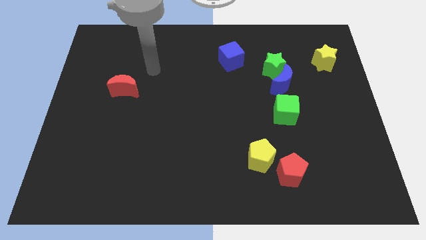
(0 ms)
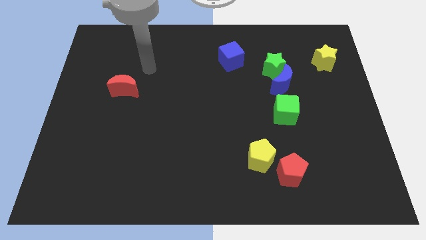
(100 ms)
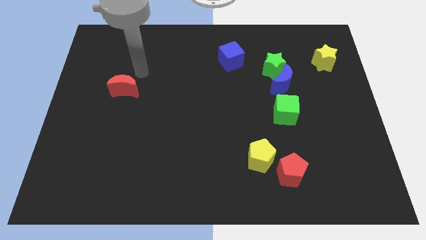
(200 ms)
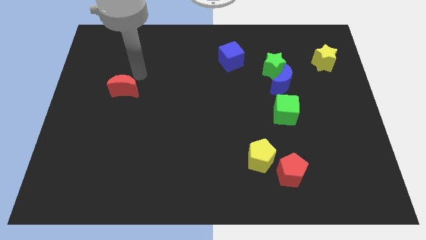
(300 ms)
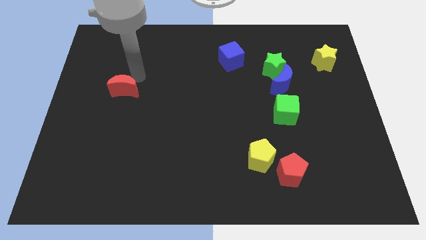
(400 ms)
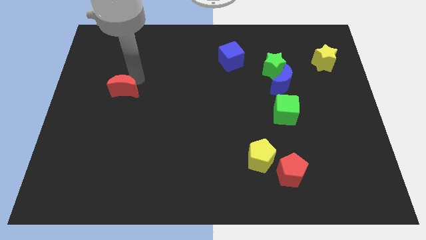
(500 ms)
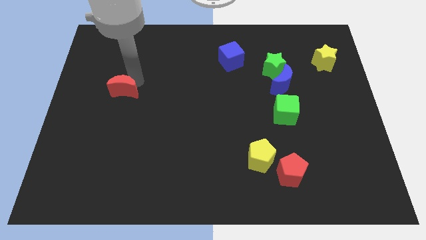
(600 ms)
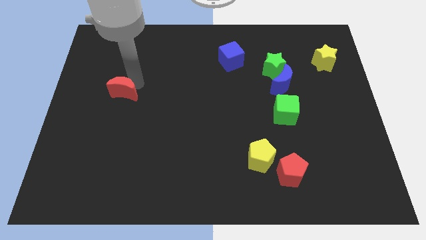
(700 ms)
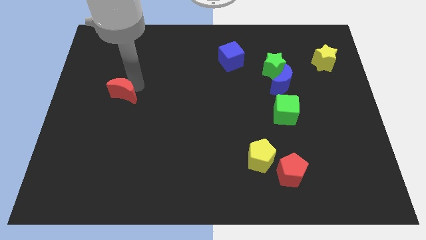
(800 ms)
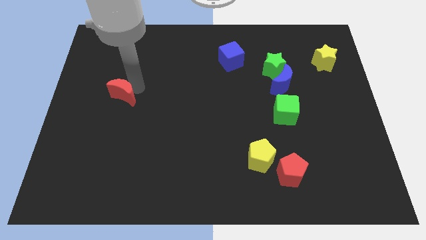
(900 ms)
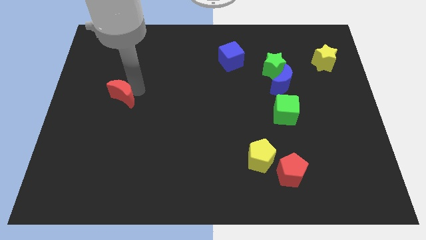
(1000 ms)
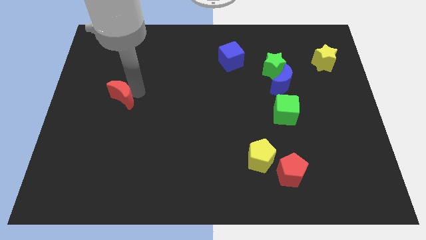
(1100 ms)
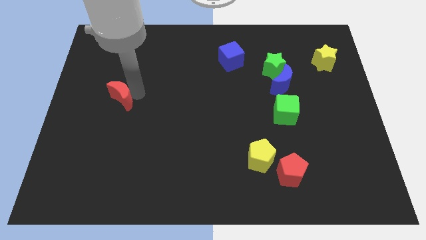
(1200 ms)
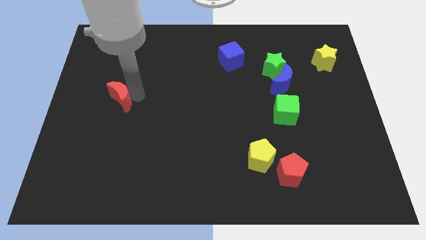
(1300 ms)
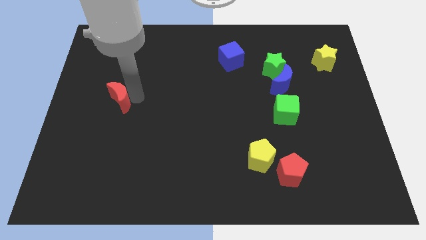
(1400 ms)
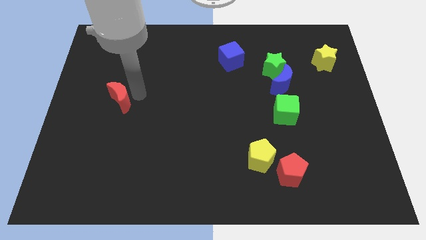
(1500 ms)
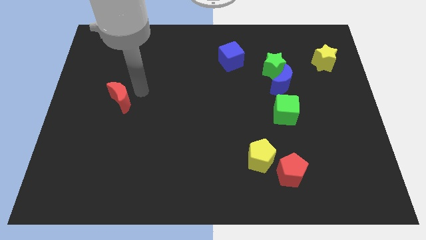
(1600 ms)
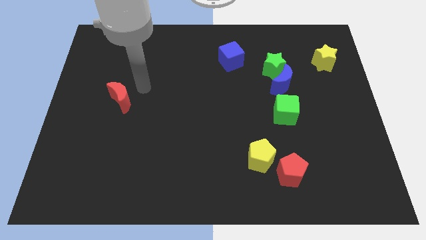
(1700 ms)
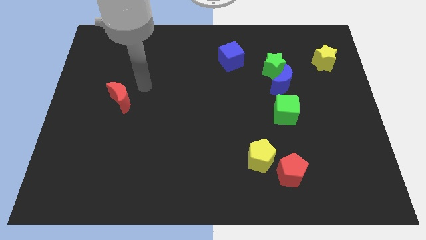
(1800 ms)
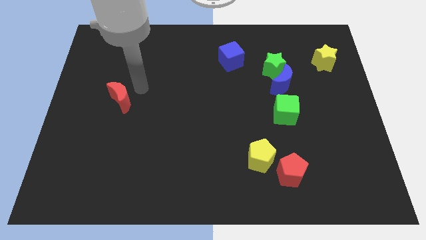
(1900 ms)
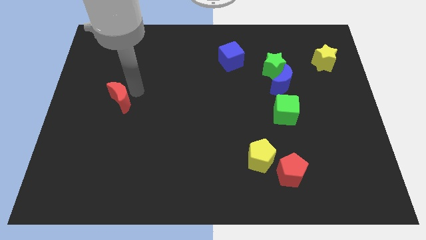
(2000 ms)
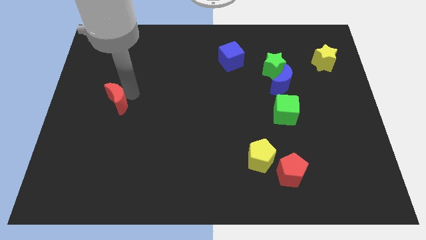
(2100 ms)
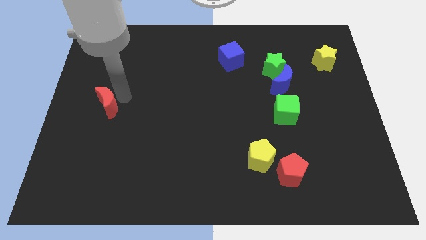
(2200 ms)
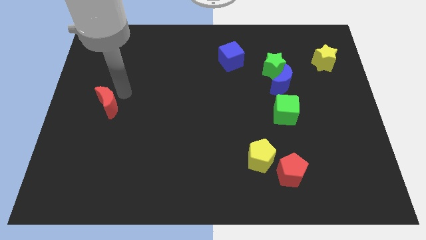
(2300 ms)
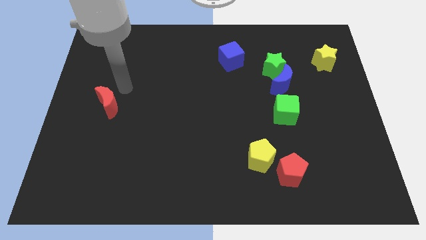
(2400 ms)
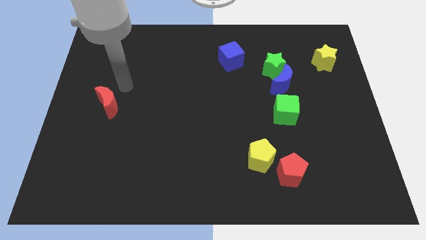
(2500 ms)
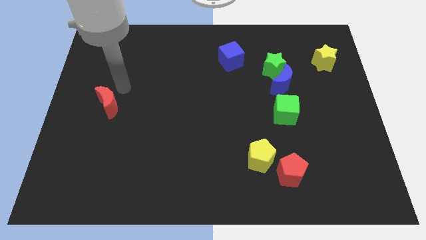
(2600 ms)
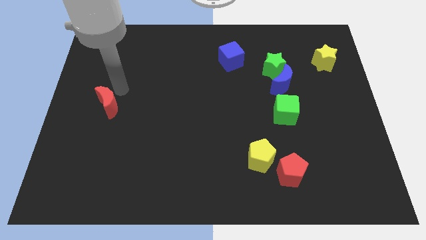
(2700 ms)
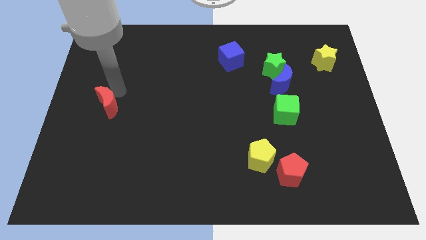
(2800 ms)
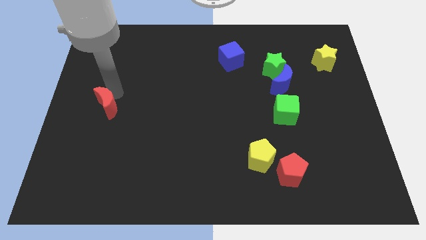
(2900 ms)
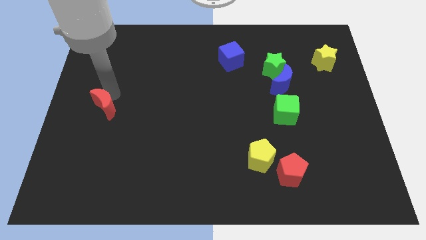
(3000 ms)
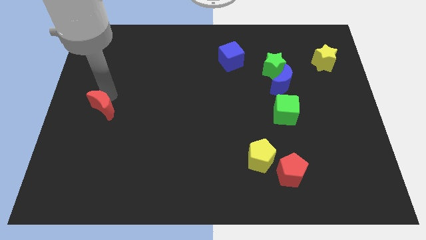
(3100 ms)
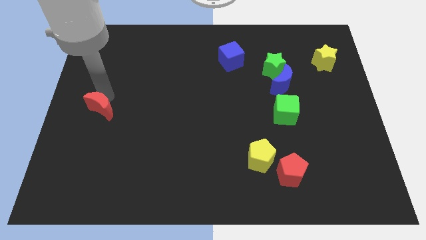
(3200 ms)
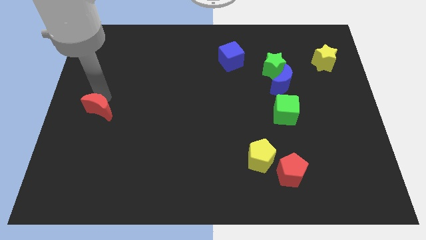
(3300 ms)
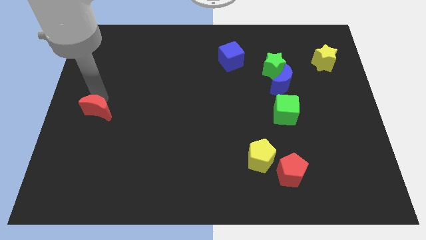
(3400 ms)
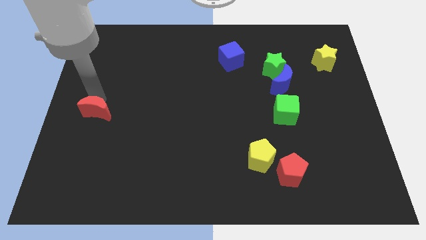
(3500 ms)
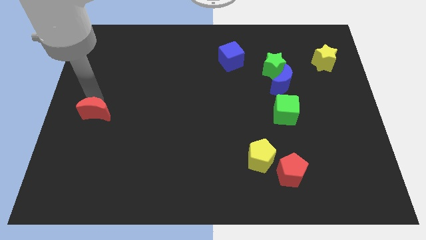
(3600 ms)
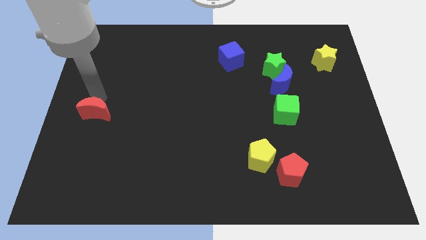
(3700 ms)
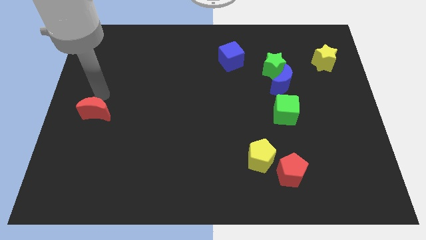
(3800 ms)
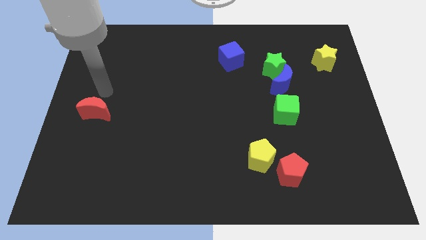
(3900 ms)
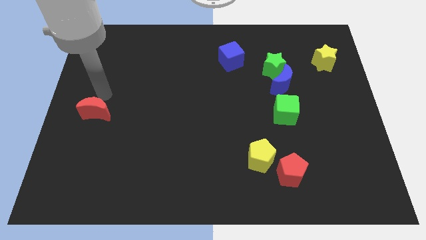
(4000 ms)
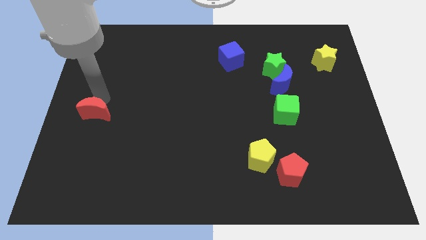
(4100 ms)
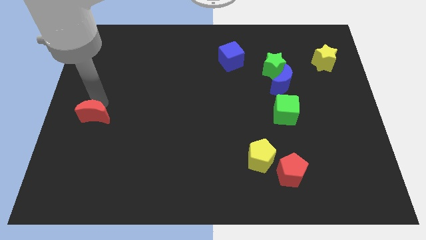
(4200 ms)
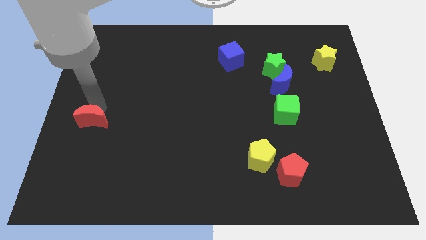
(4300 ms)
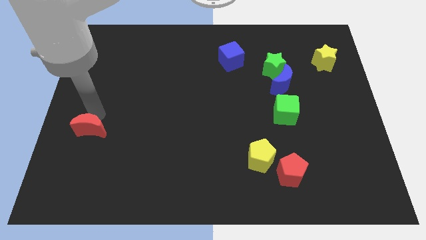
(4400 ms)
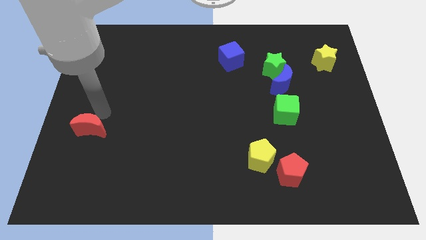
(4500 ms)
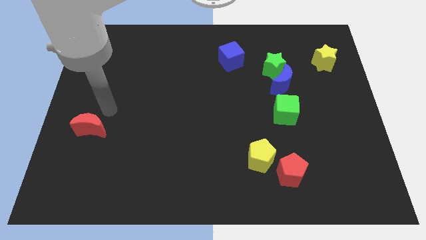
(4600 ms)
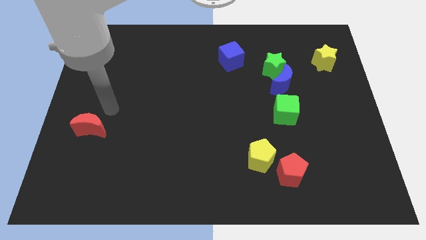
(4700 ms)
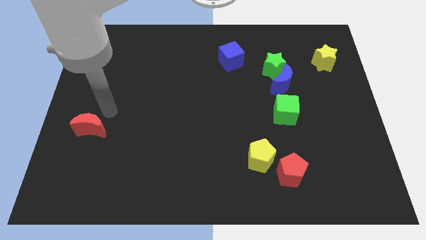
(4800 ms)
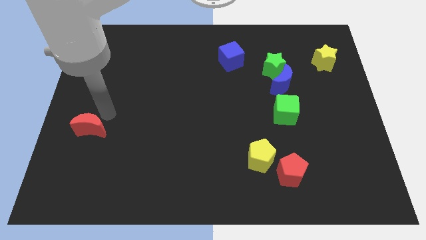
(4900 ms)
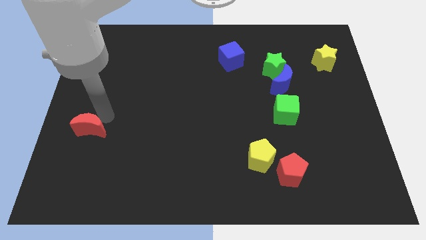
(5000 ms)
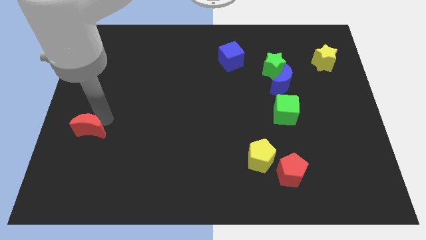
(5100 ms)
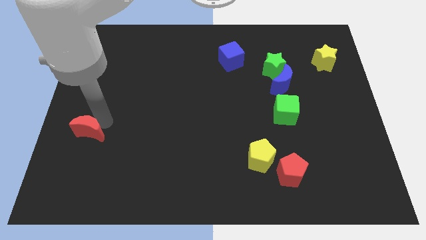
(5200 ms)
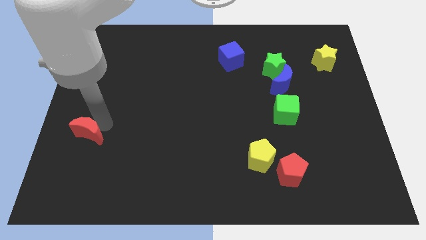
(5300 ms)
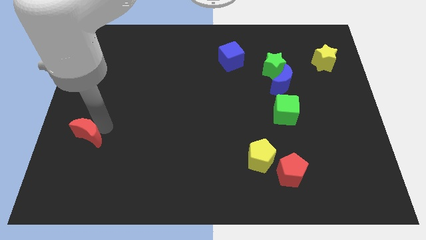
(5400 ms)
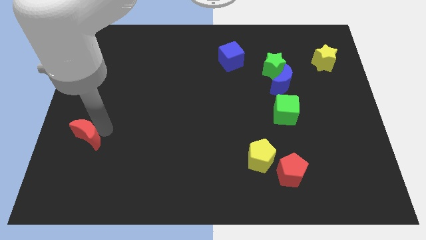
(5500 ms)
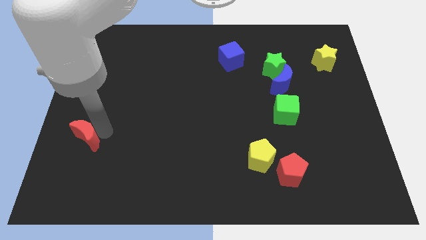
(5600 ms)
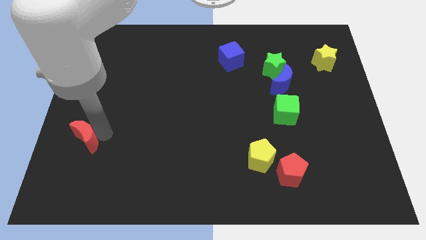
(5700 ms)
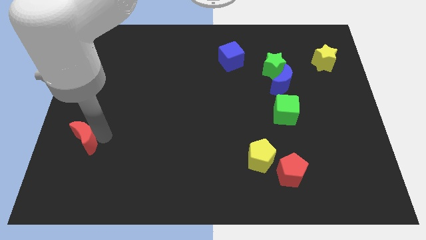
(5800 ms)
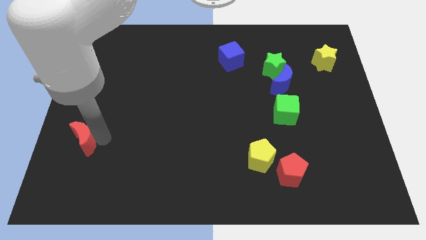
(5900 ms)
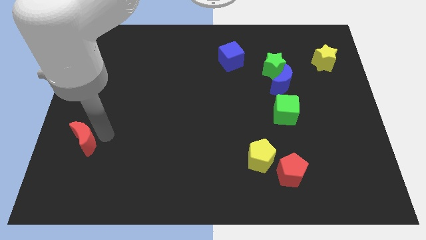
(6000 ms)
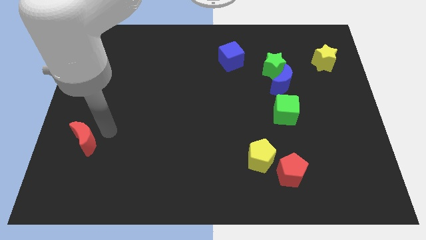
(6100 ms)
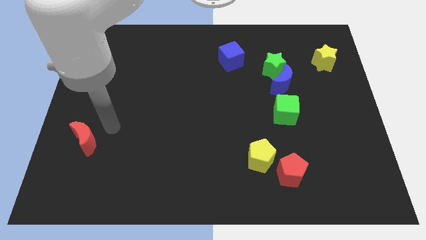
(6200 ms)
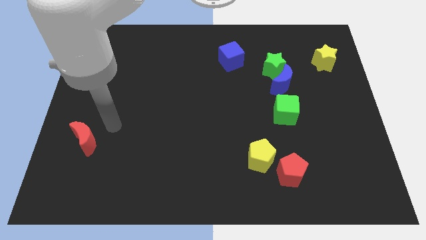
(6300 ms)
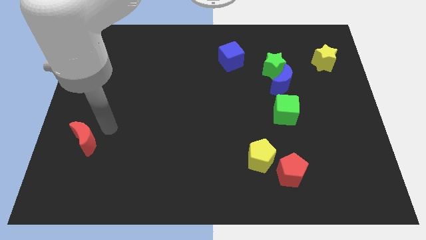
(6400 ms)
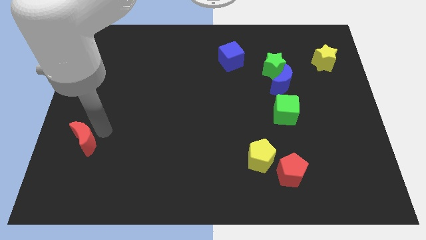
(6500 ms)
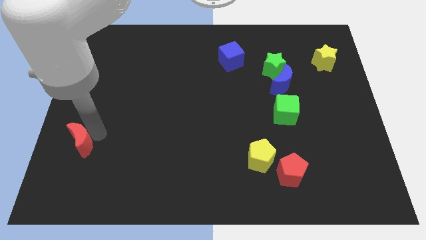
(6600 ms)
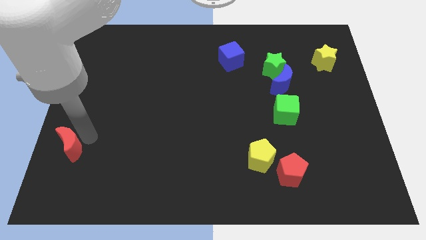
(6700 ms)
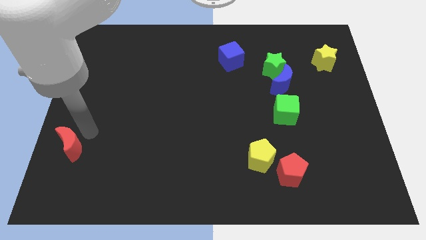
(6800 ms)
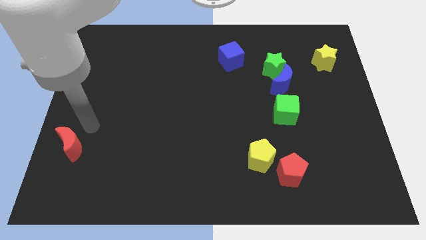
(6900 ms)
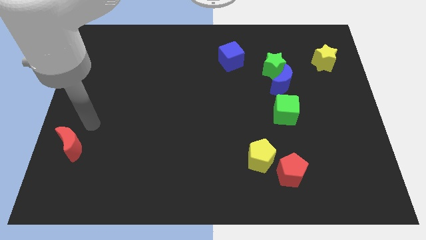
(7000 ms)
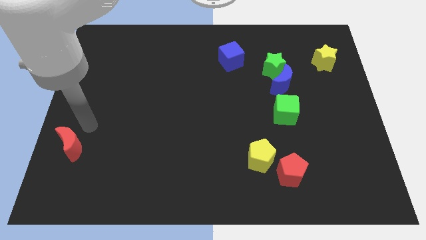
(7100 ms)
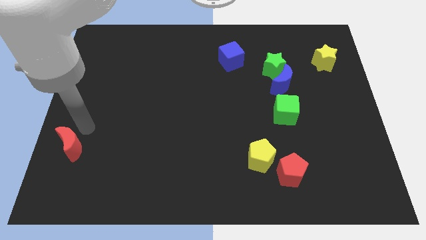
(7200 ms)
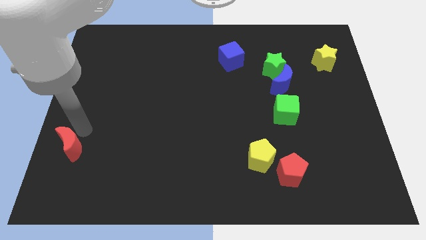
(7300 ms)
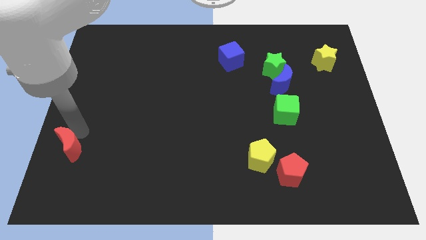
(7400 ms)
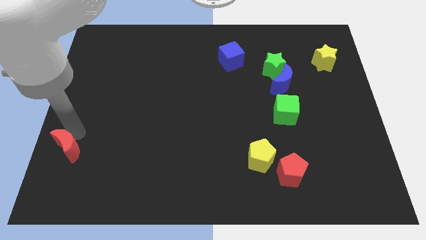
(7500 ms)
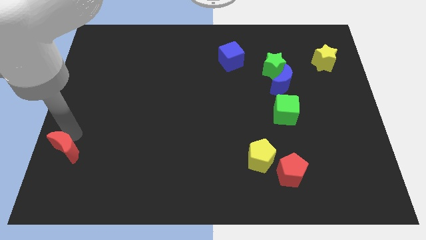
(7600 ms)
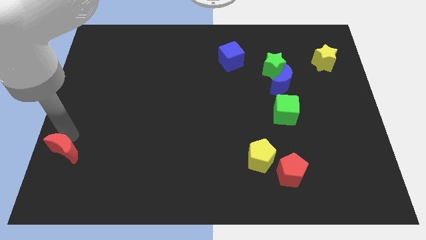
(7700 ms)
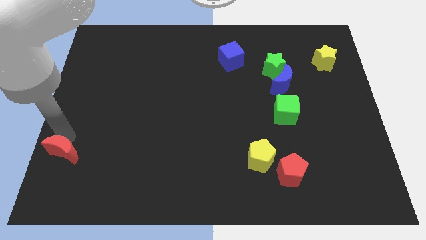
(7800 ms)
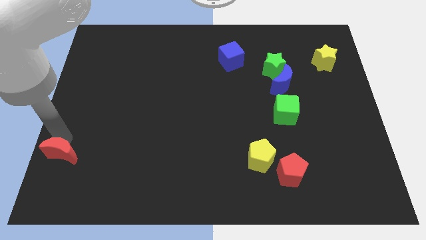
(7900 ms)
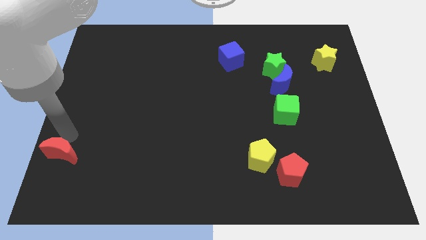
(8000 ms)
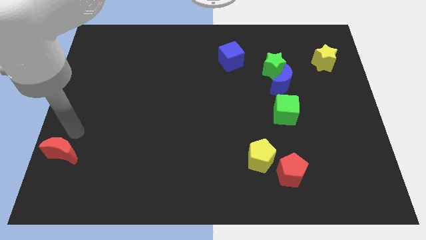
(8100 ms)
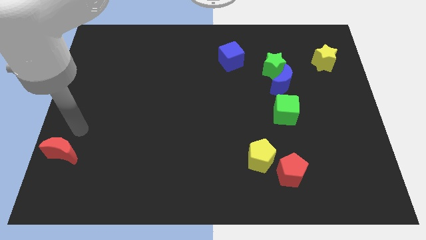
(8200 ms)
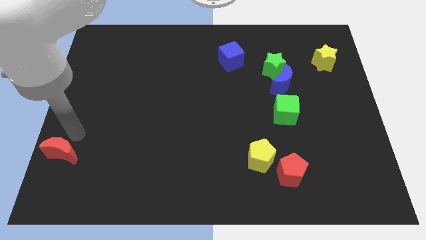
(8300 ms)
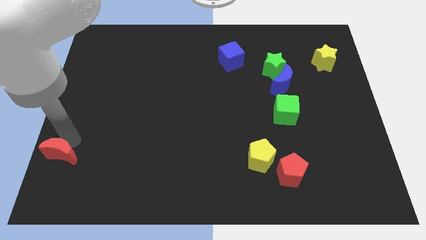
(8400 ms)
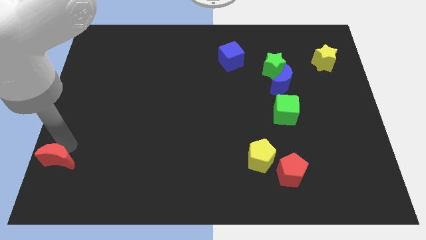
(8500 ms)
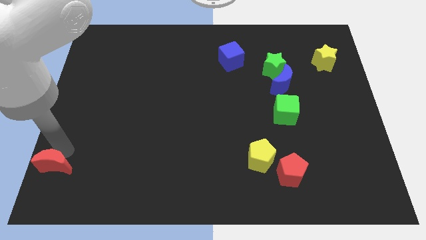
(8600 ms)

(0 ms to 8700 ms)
put the red moon to the bottom left corner
